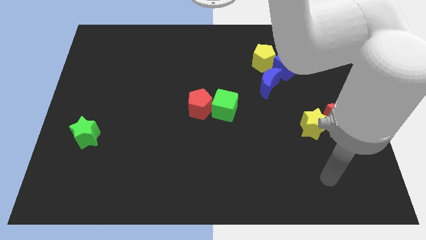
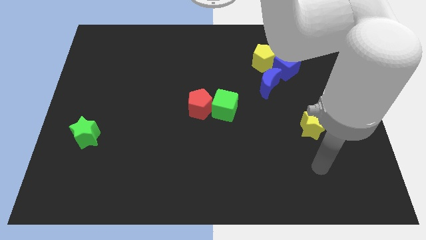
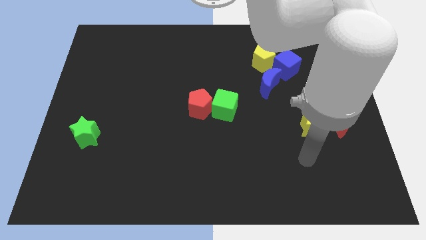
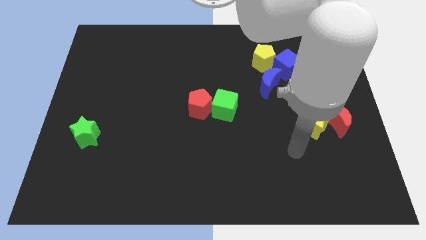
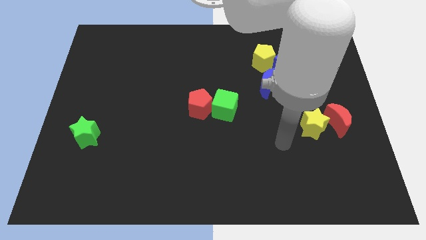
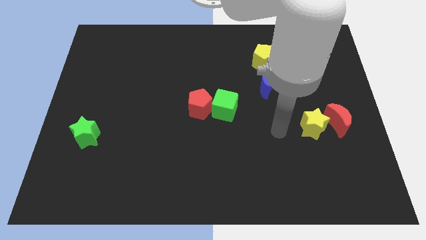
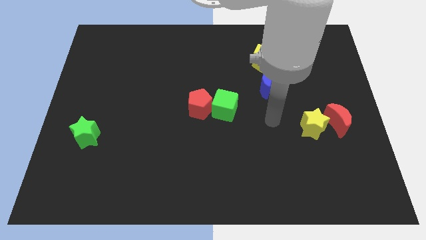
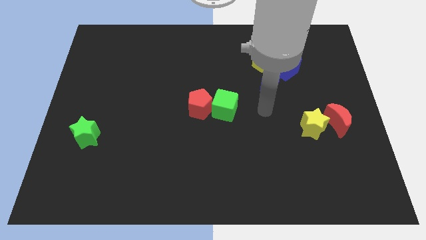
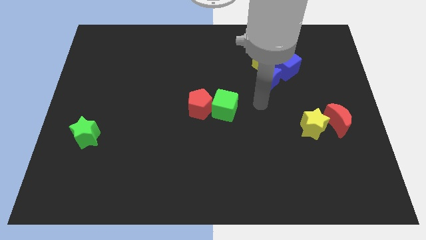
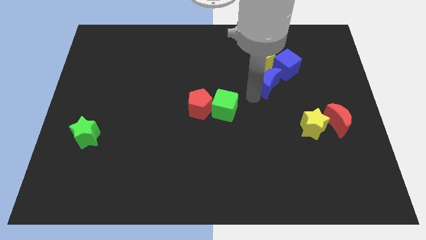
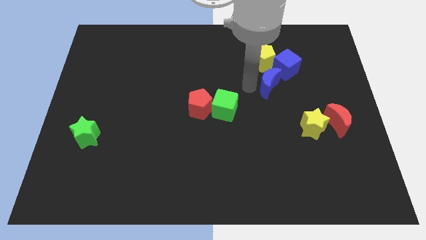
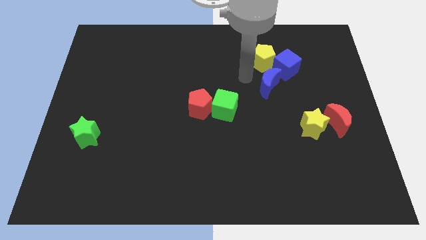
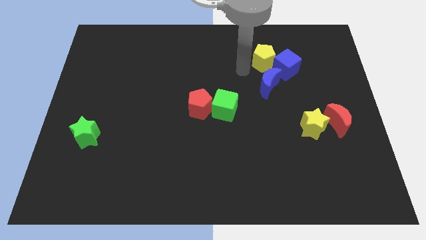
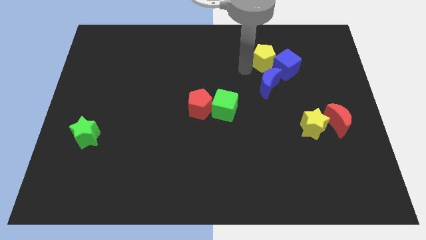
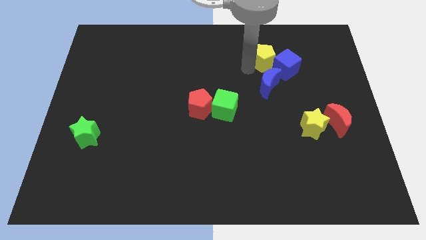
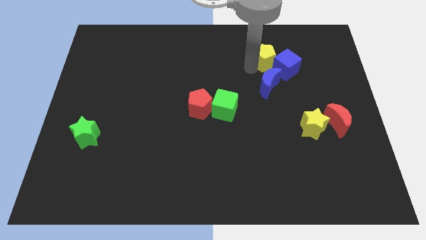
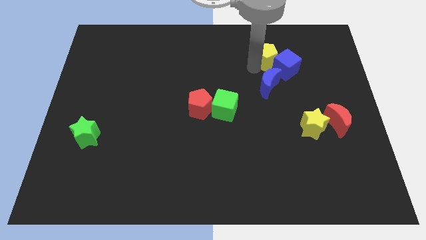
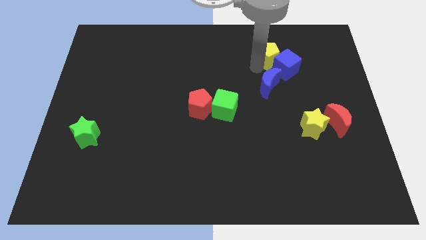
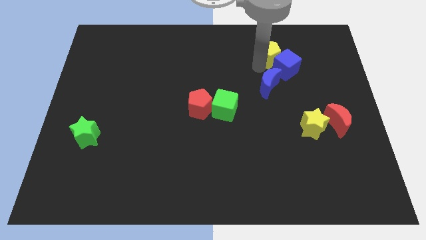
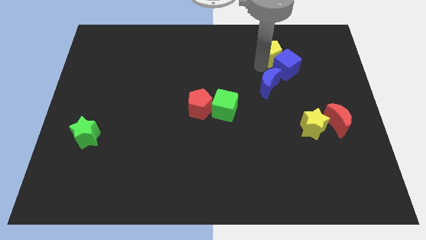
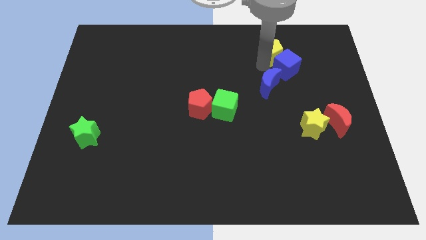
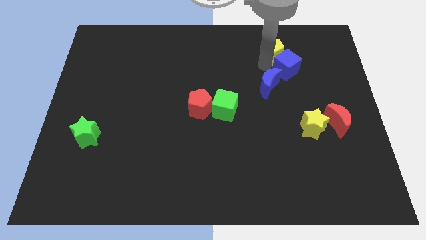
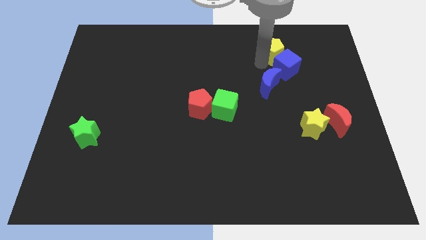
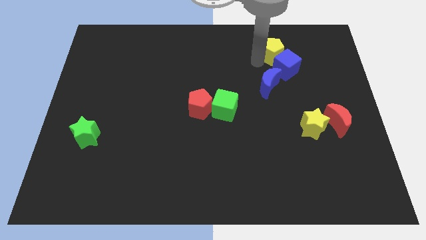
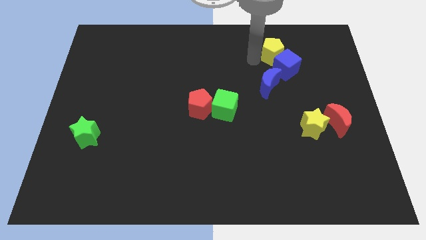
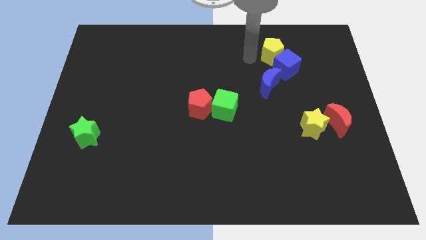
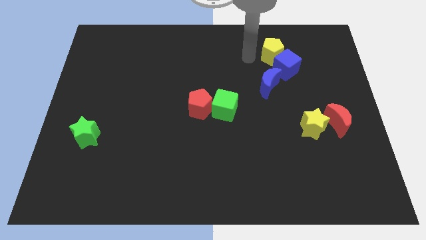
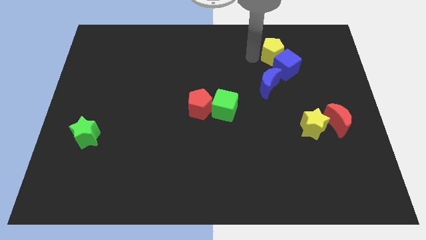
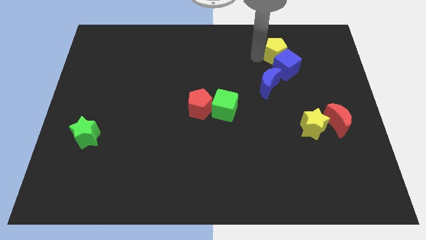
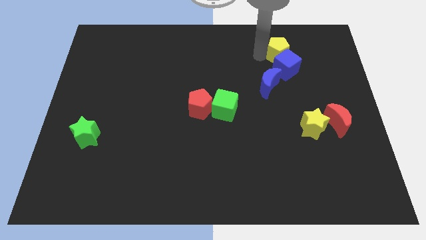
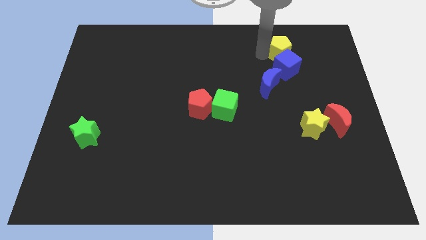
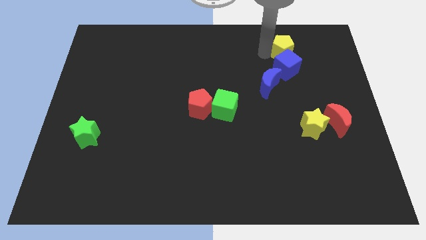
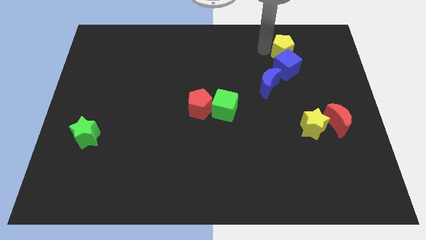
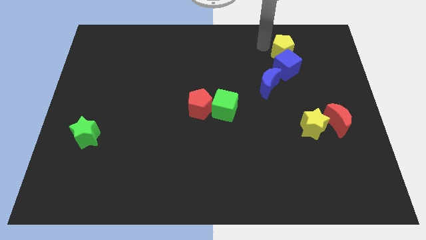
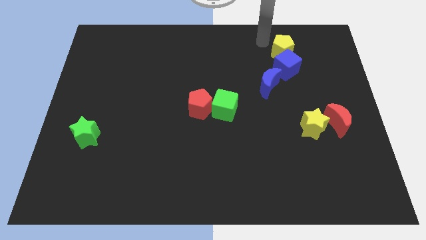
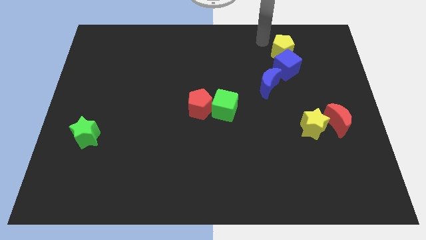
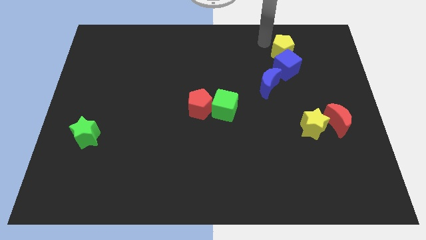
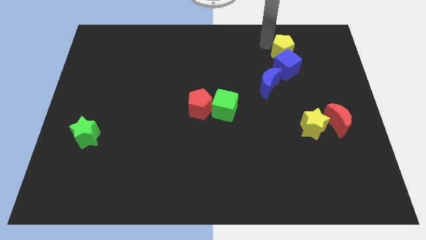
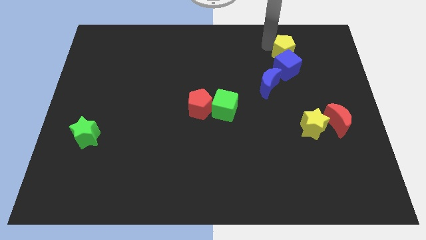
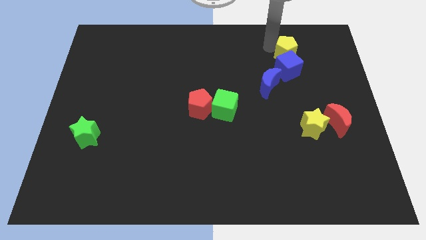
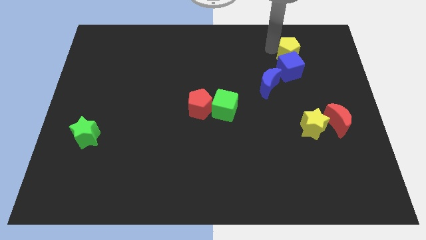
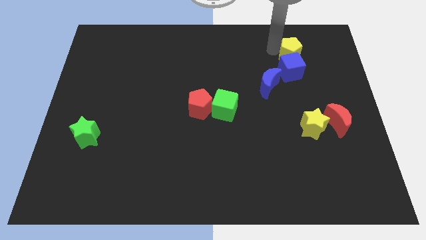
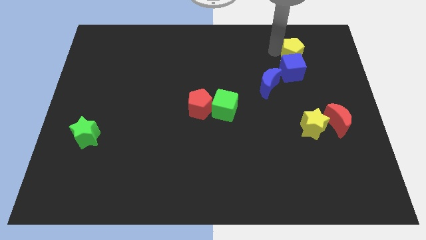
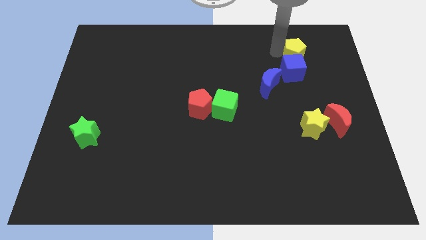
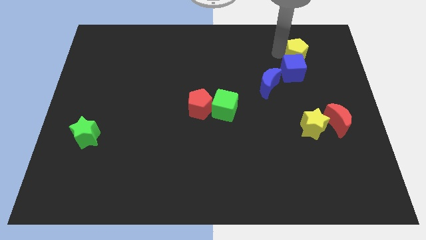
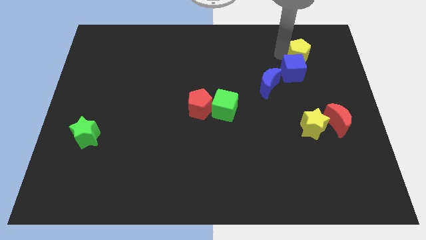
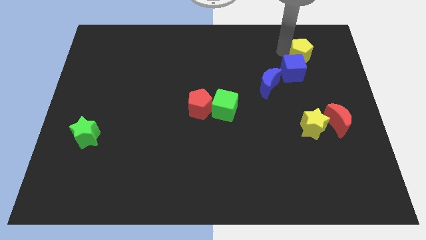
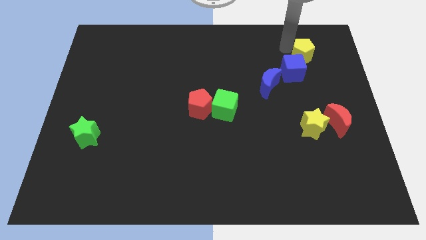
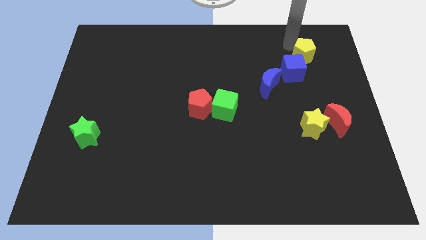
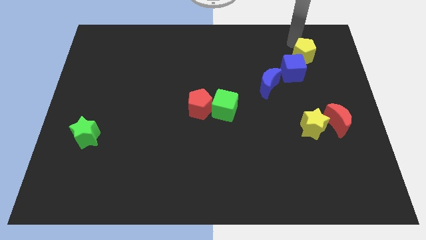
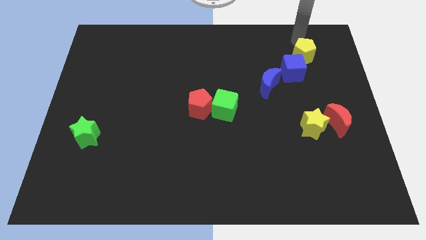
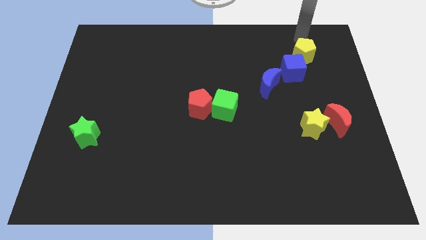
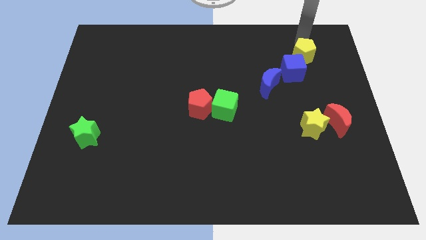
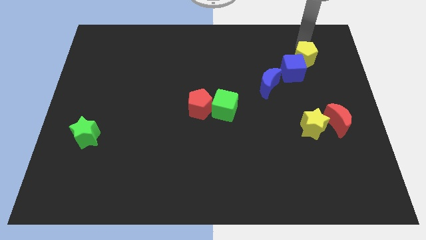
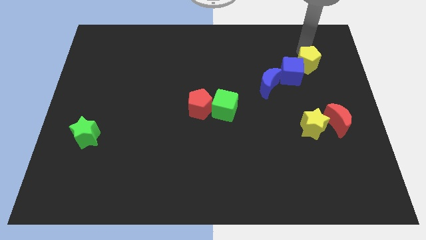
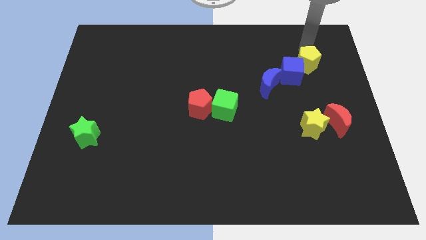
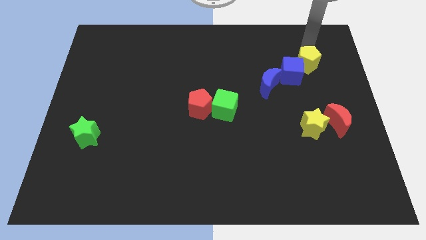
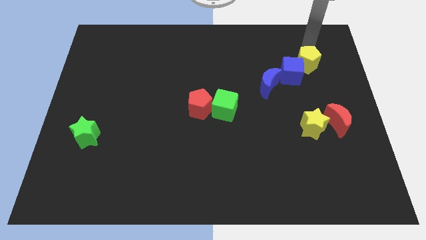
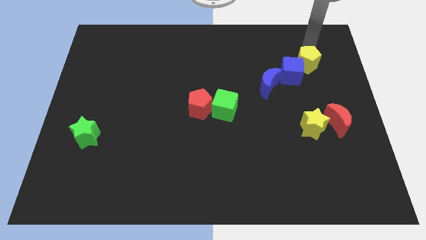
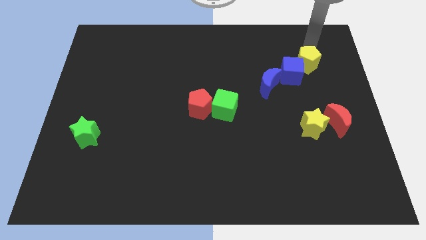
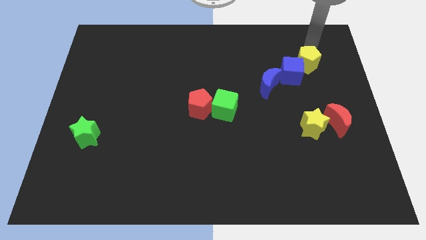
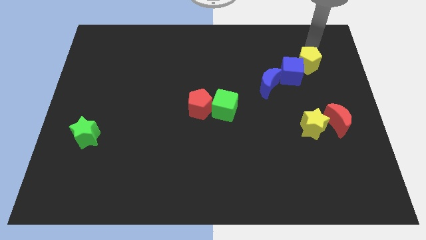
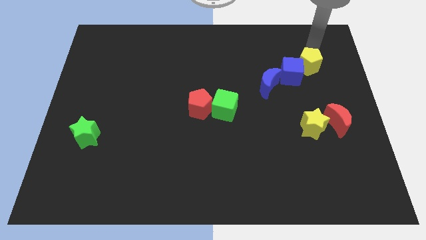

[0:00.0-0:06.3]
slightly push the yellow pentagon diagonally down and to the right

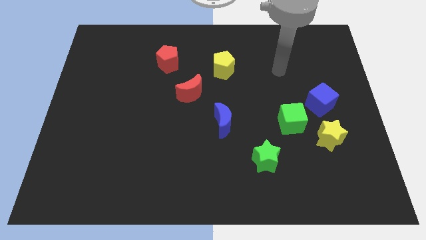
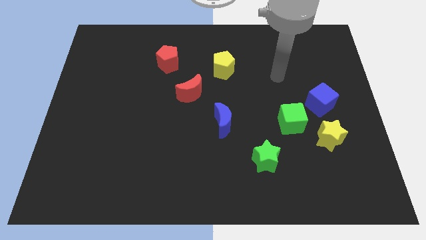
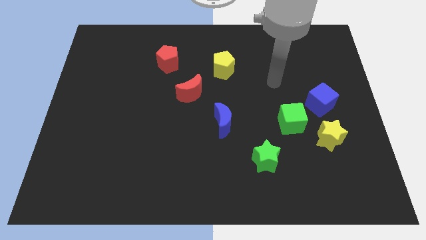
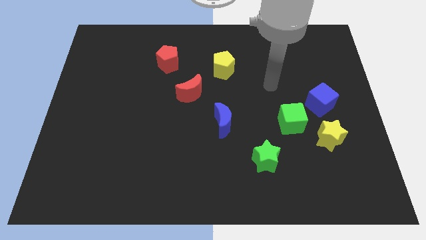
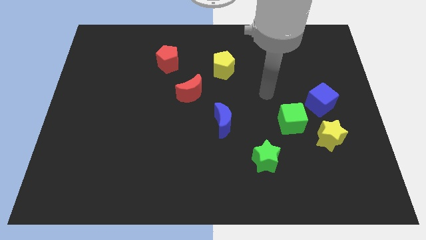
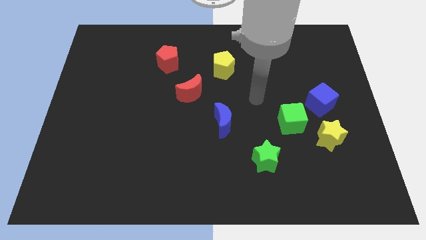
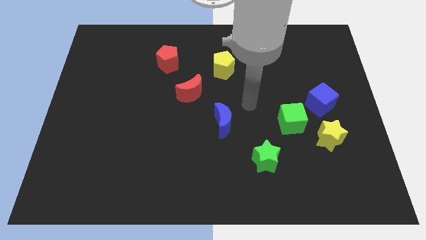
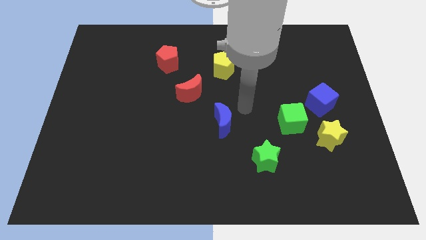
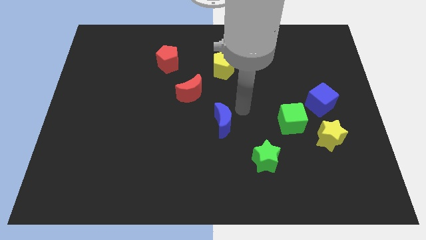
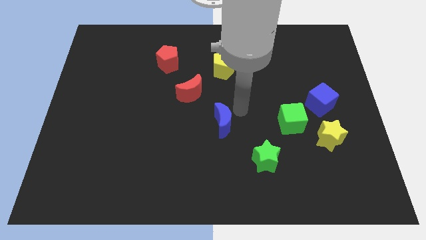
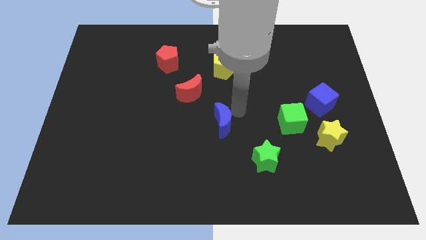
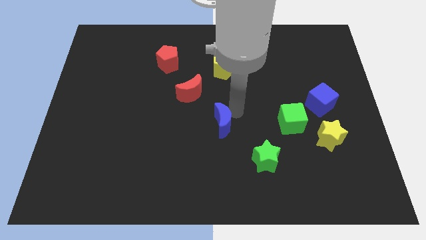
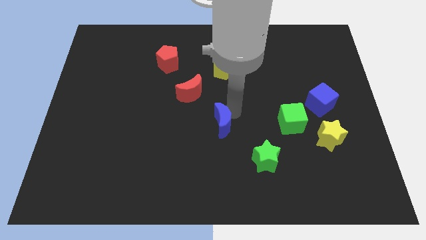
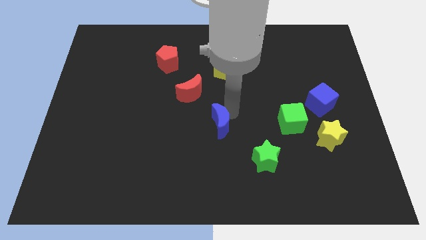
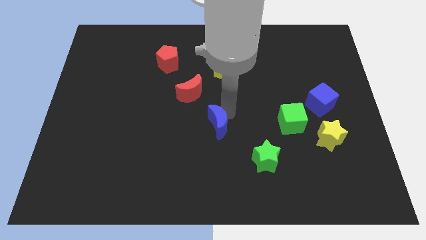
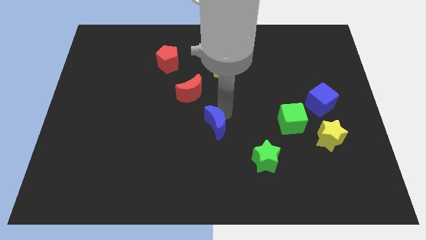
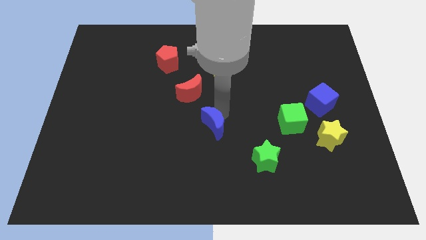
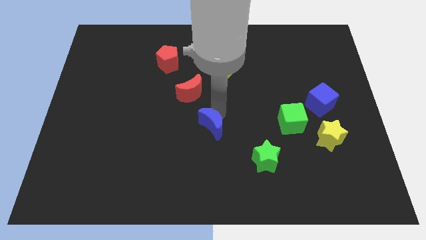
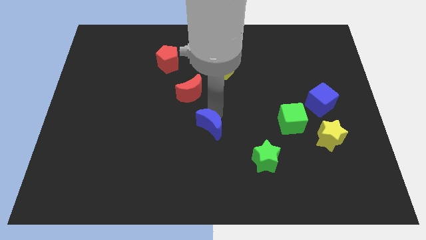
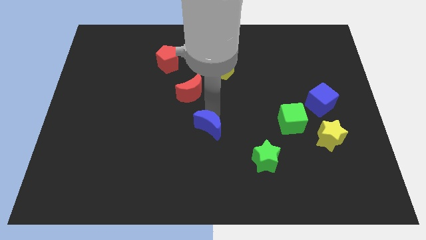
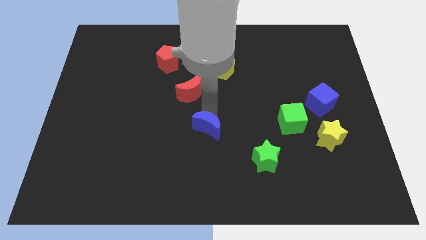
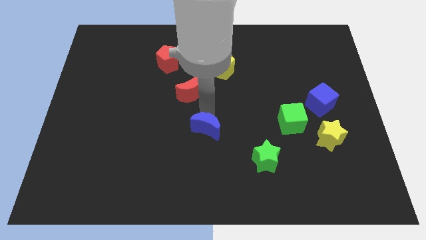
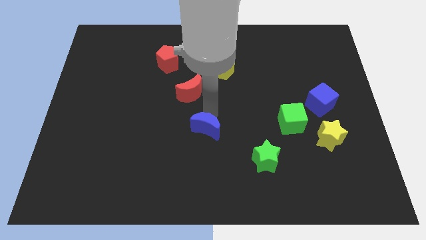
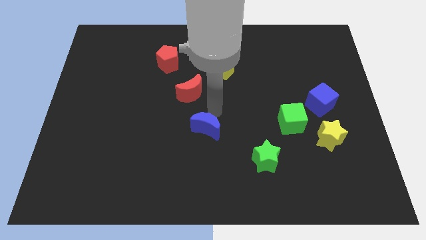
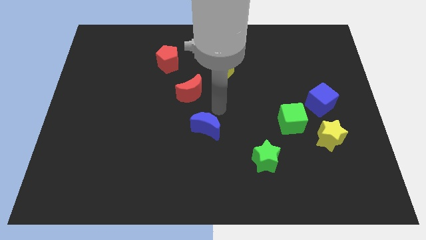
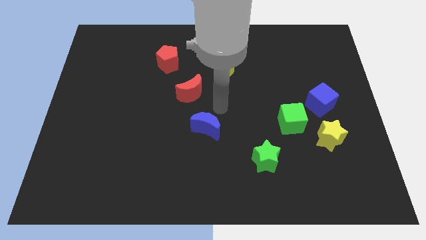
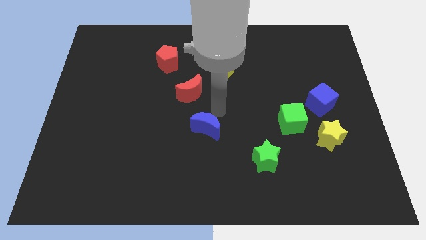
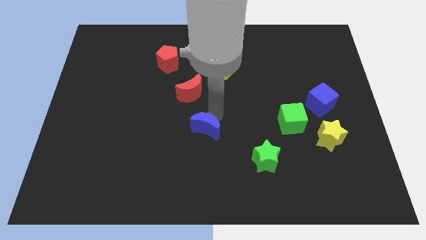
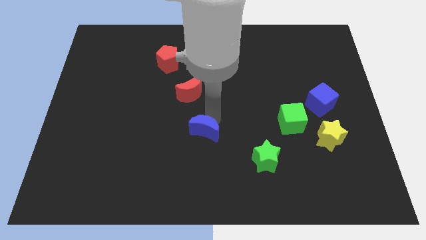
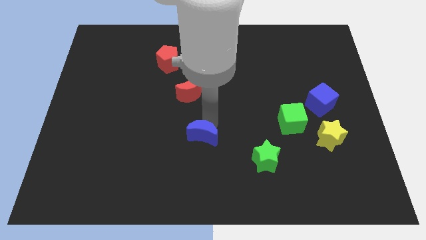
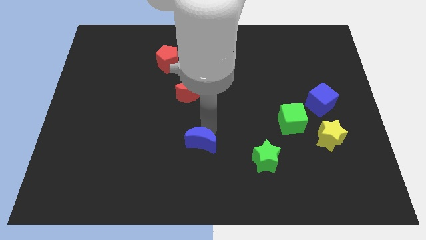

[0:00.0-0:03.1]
push the blue moon diagonally down and left a little bit
